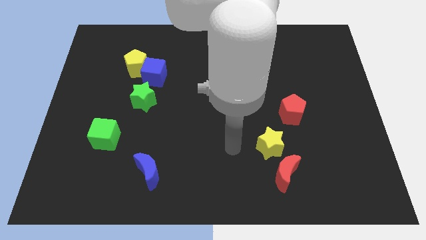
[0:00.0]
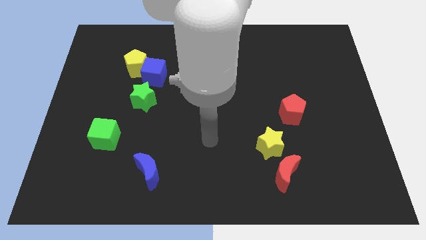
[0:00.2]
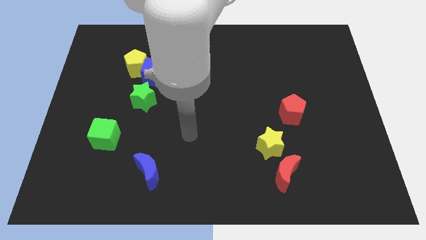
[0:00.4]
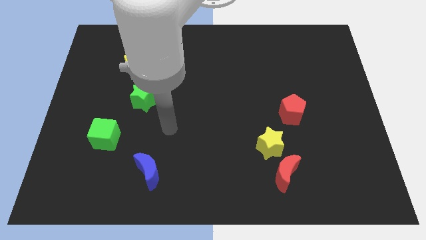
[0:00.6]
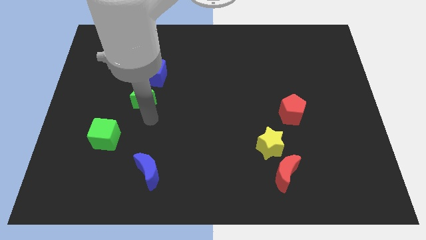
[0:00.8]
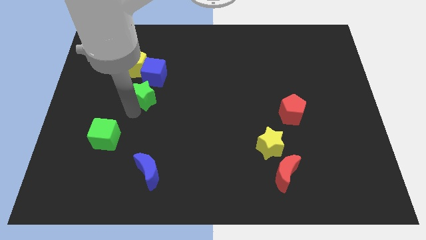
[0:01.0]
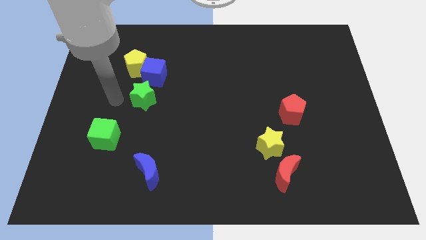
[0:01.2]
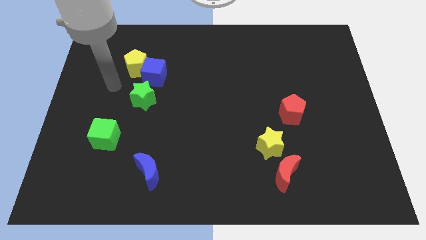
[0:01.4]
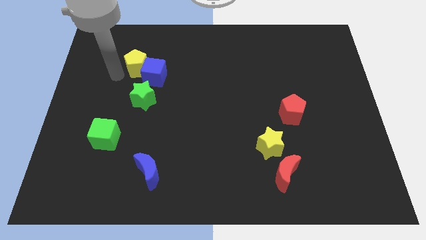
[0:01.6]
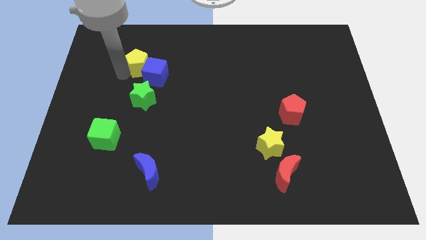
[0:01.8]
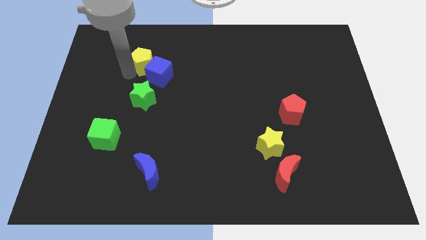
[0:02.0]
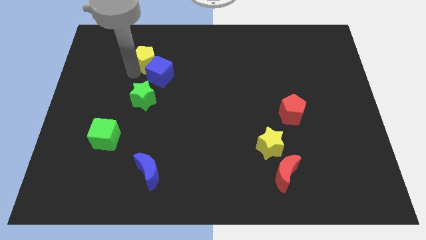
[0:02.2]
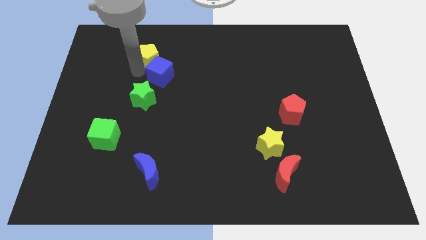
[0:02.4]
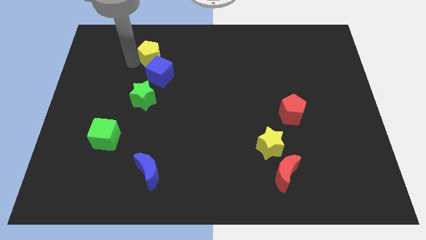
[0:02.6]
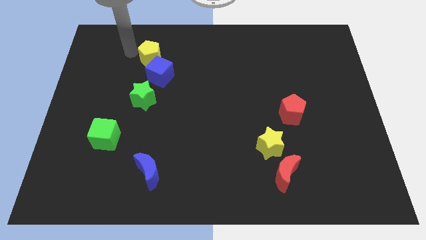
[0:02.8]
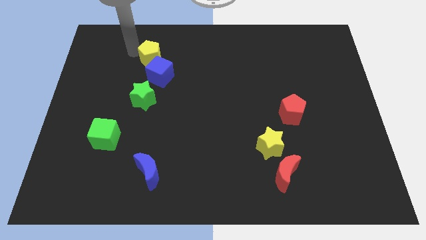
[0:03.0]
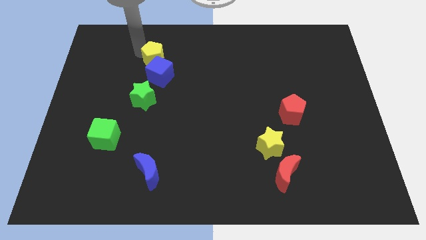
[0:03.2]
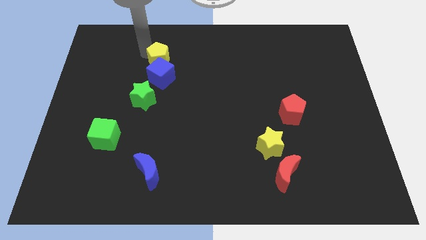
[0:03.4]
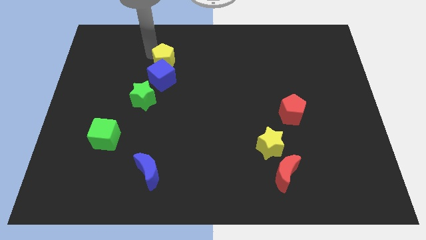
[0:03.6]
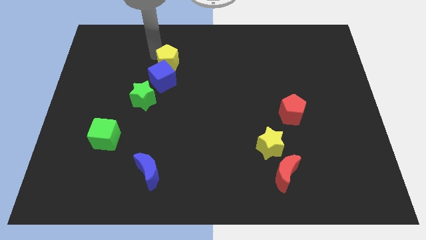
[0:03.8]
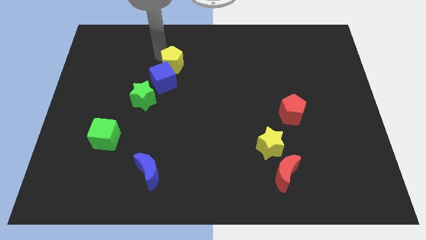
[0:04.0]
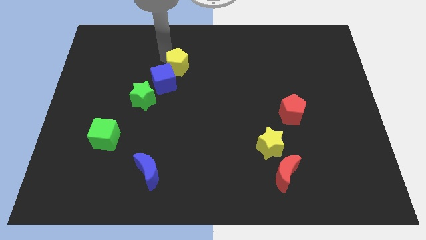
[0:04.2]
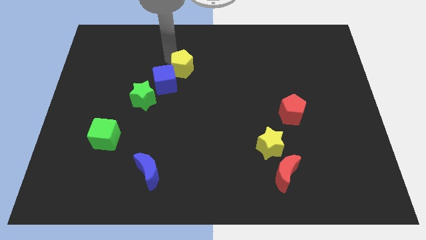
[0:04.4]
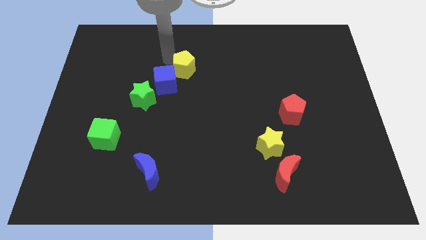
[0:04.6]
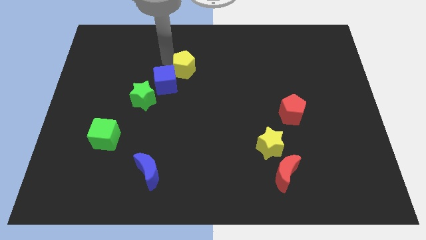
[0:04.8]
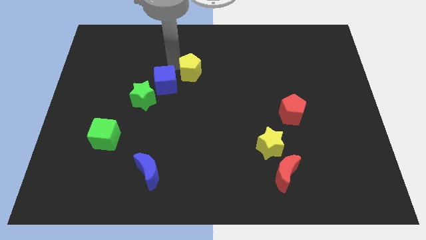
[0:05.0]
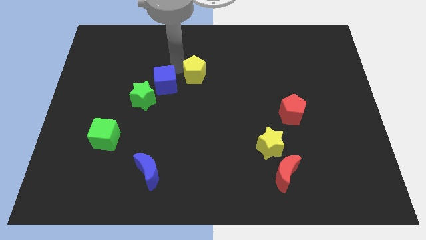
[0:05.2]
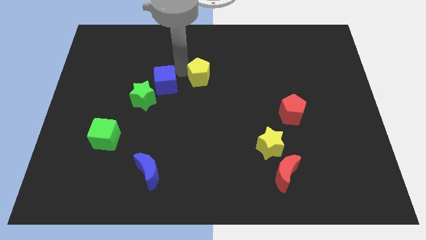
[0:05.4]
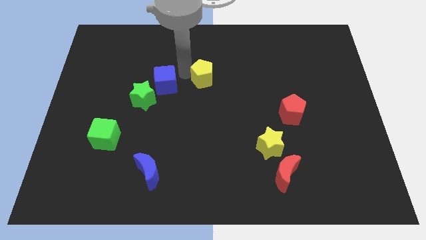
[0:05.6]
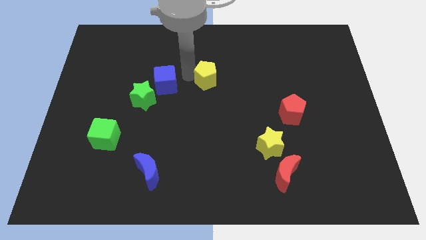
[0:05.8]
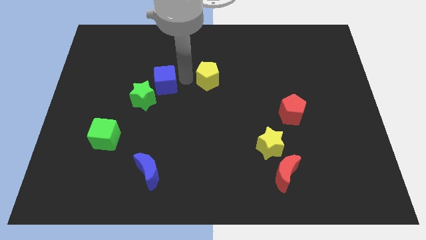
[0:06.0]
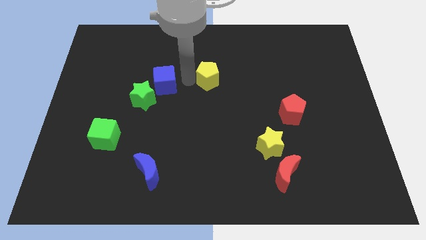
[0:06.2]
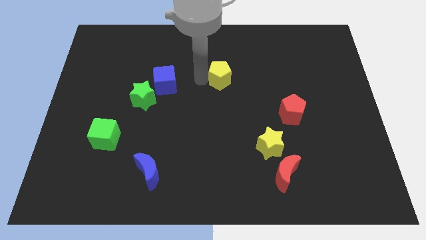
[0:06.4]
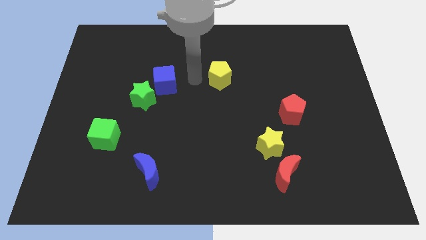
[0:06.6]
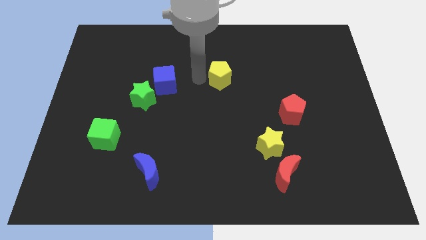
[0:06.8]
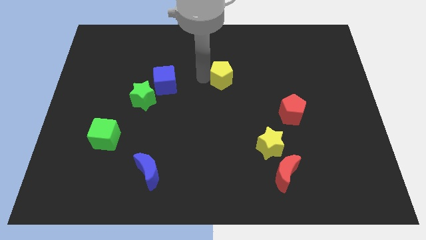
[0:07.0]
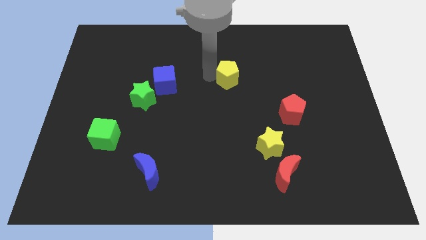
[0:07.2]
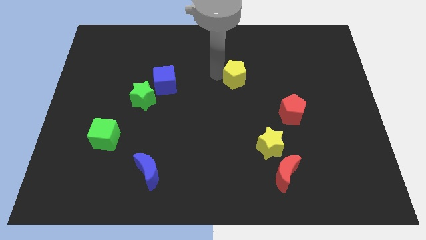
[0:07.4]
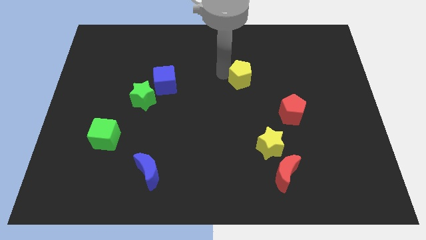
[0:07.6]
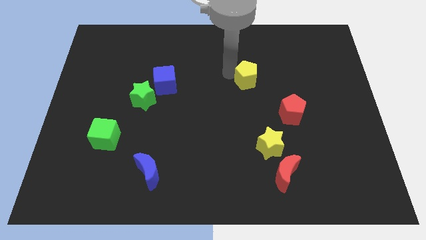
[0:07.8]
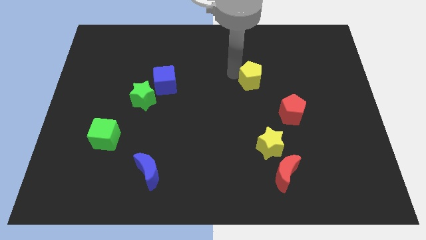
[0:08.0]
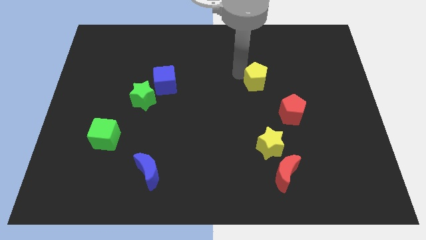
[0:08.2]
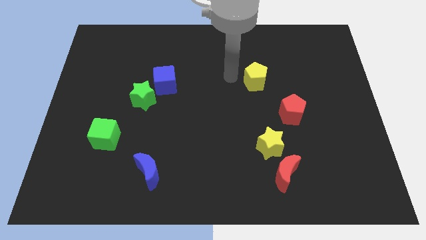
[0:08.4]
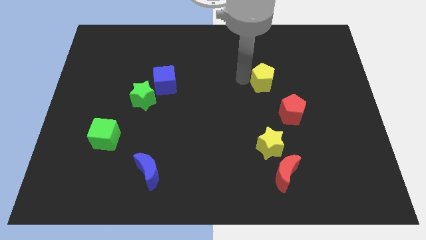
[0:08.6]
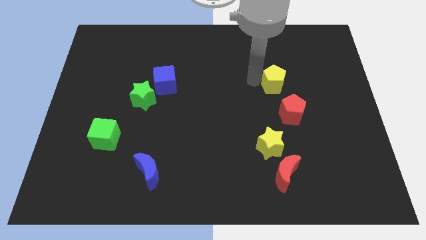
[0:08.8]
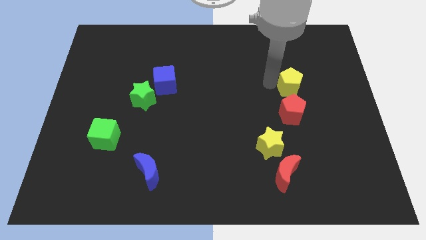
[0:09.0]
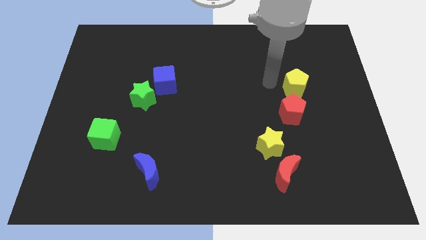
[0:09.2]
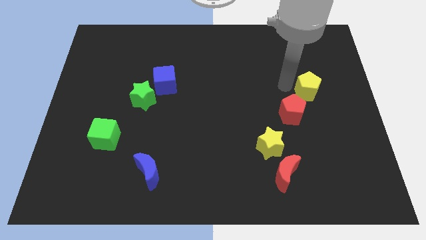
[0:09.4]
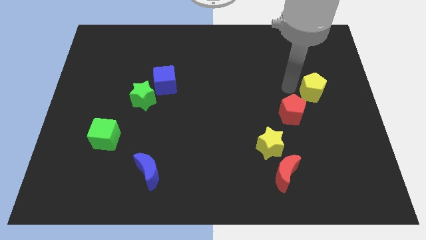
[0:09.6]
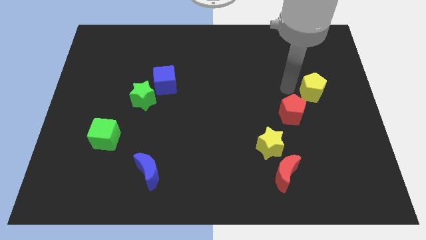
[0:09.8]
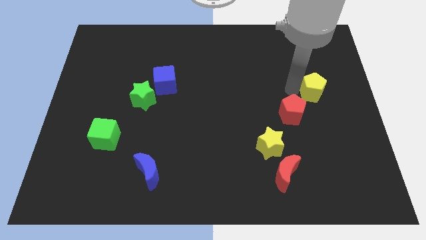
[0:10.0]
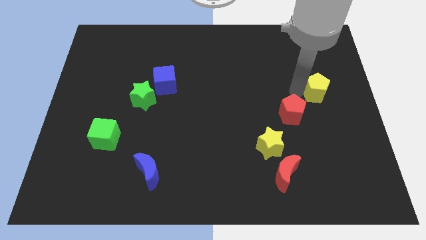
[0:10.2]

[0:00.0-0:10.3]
move the yellow pentagon to the center right

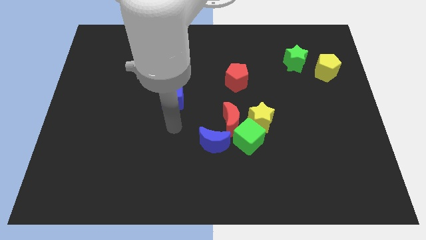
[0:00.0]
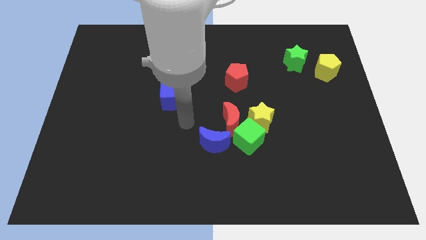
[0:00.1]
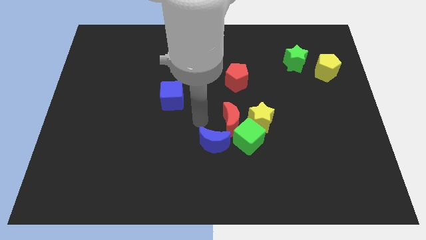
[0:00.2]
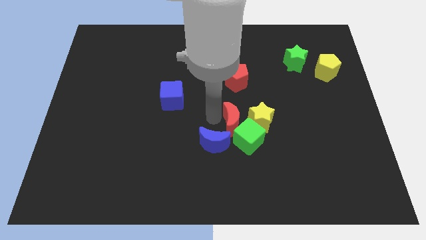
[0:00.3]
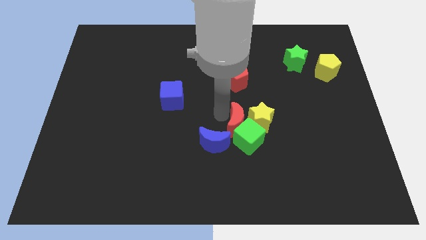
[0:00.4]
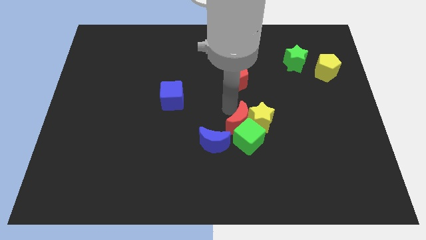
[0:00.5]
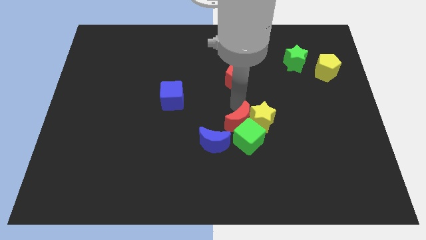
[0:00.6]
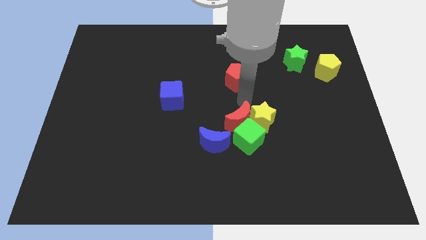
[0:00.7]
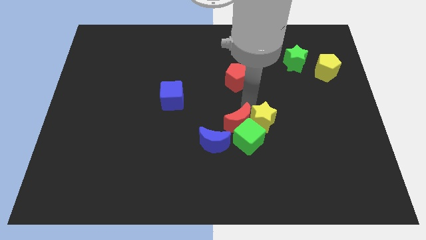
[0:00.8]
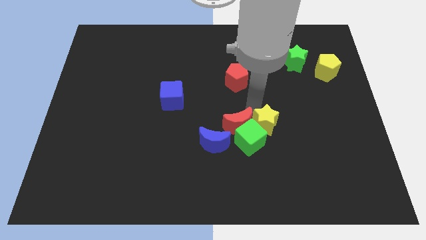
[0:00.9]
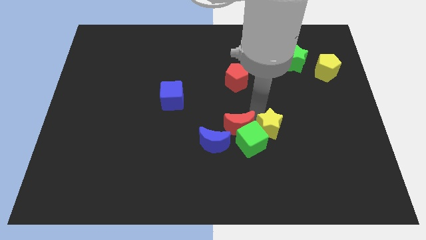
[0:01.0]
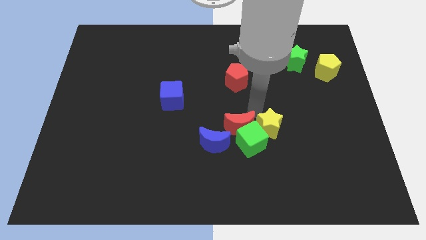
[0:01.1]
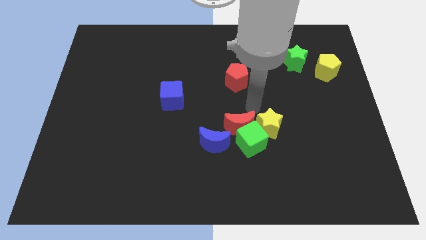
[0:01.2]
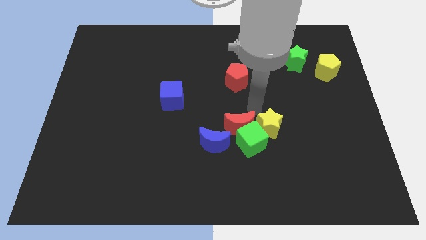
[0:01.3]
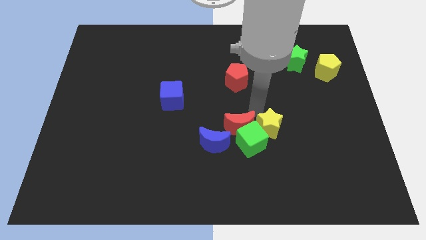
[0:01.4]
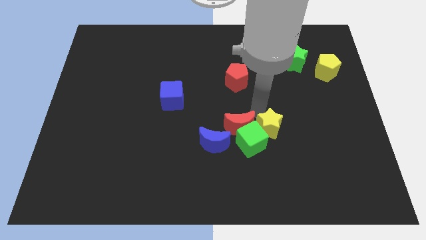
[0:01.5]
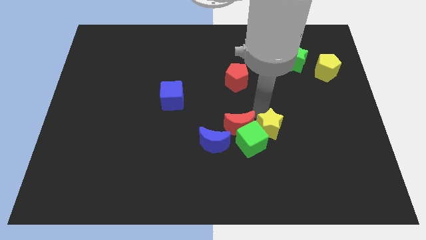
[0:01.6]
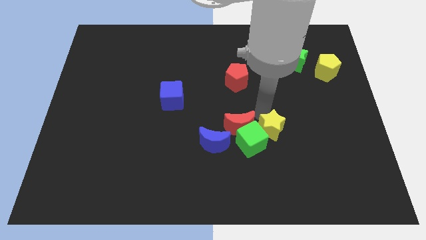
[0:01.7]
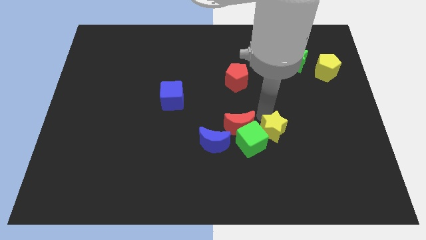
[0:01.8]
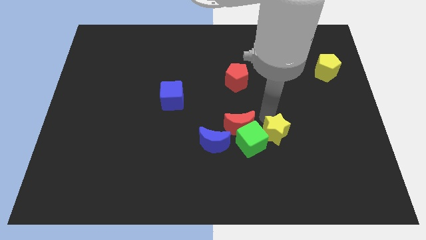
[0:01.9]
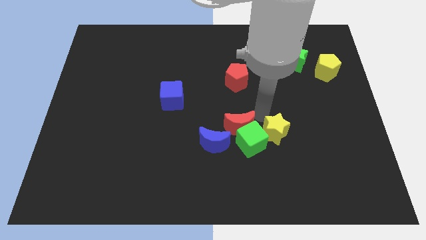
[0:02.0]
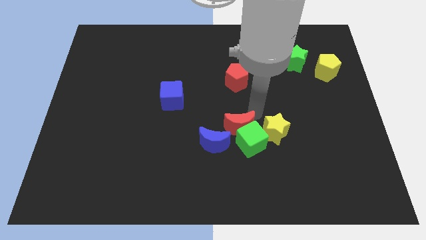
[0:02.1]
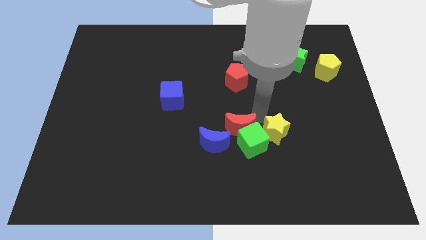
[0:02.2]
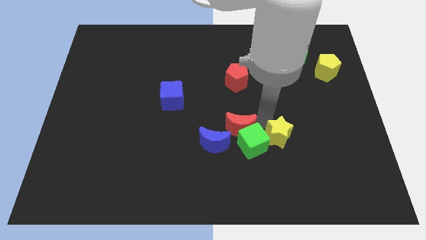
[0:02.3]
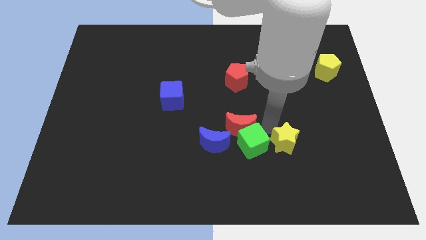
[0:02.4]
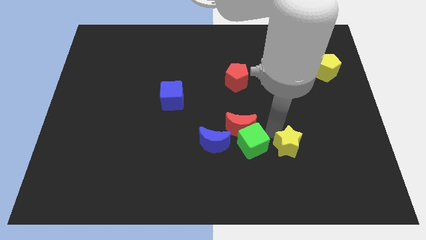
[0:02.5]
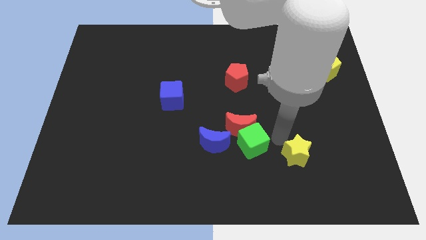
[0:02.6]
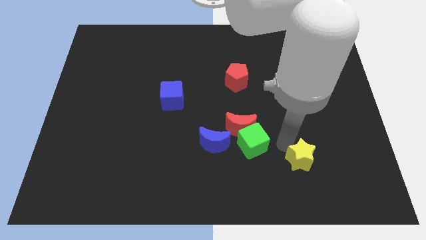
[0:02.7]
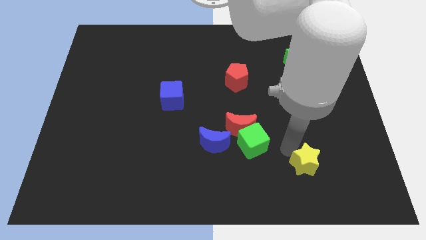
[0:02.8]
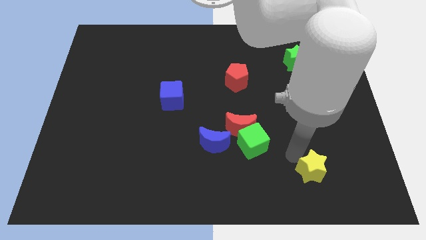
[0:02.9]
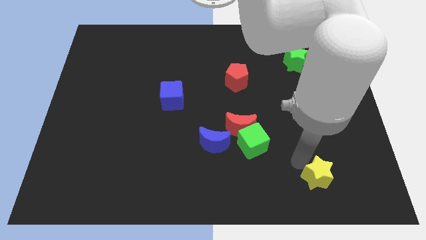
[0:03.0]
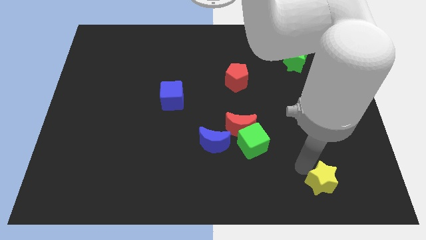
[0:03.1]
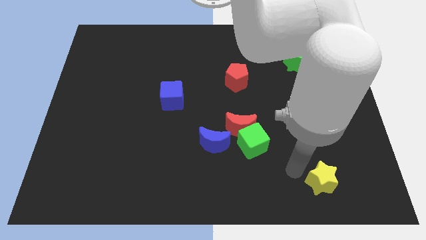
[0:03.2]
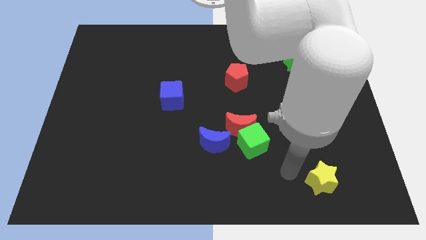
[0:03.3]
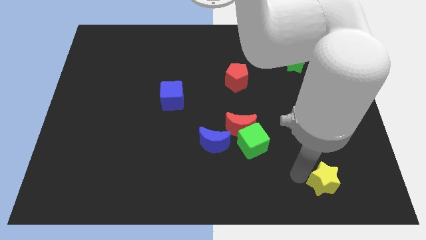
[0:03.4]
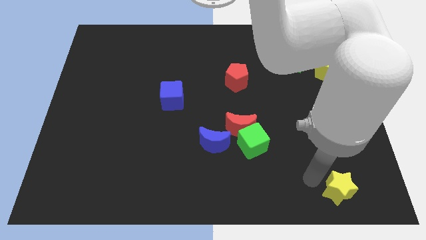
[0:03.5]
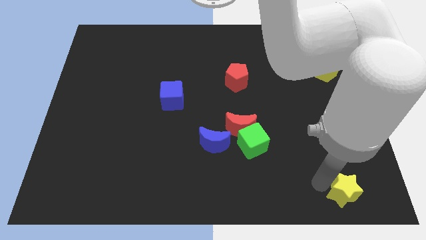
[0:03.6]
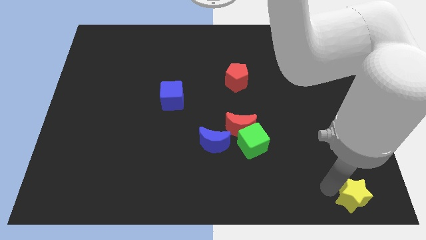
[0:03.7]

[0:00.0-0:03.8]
slide the yellow star to the bottom right
